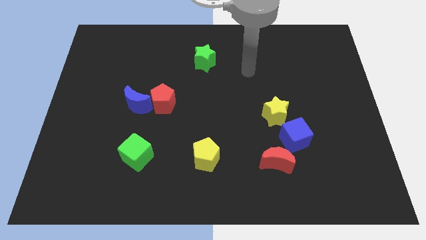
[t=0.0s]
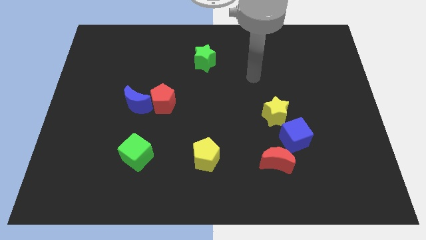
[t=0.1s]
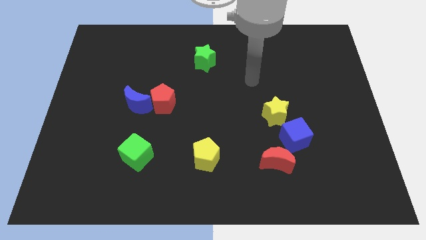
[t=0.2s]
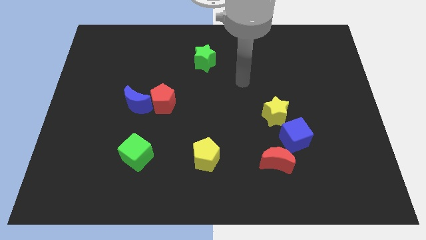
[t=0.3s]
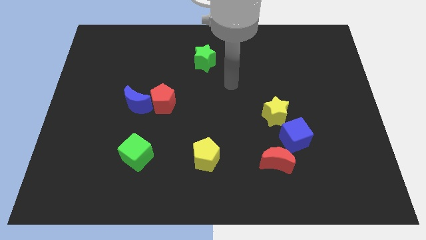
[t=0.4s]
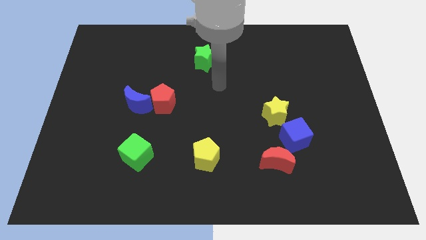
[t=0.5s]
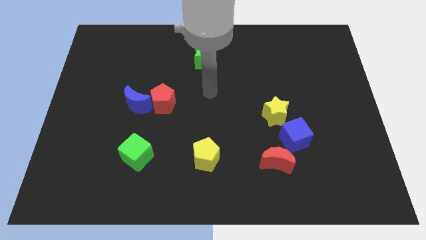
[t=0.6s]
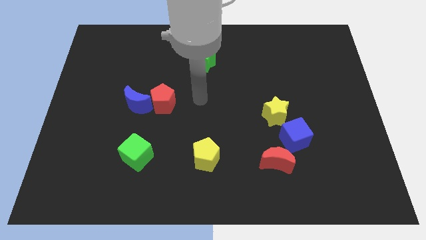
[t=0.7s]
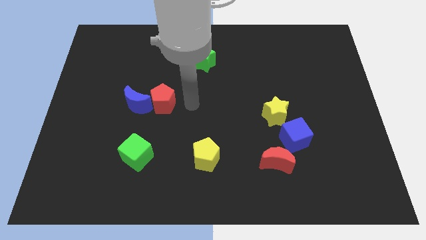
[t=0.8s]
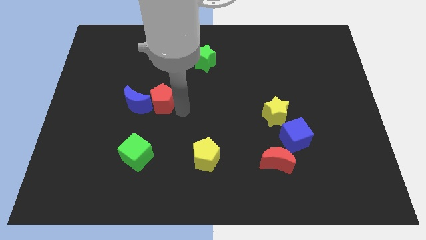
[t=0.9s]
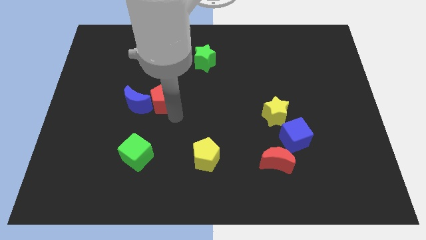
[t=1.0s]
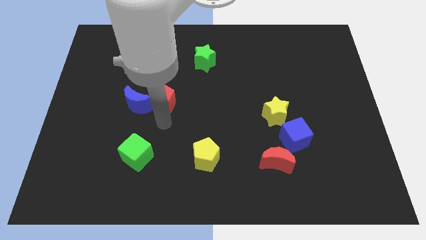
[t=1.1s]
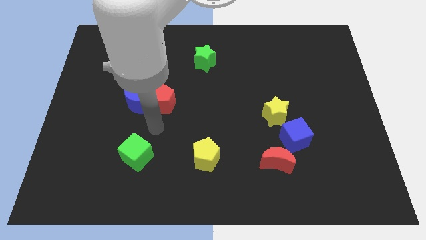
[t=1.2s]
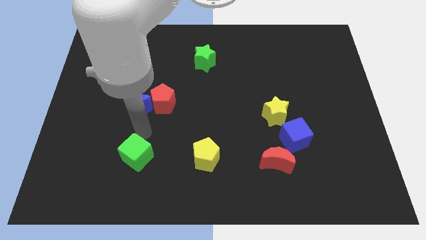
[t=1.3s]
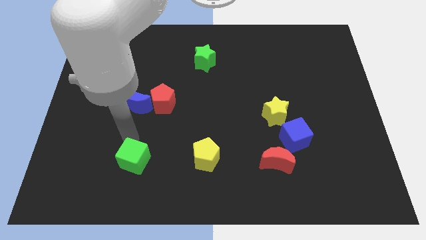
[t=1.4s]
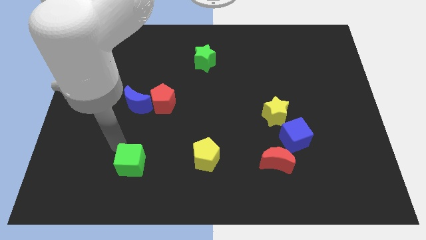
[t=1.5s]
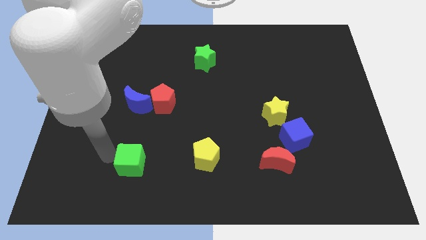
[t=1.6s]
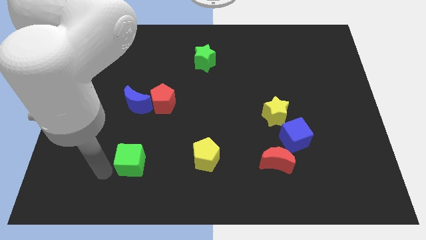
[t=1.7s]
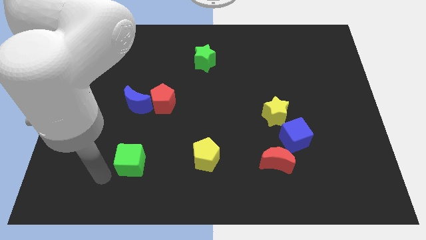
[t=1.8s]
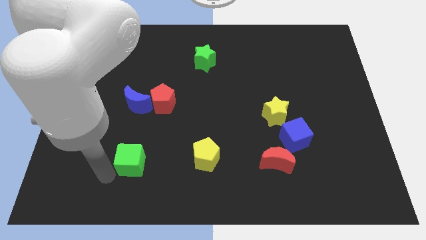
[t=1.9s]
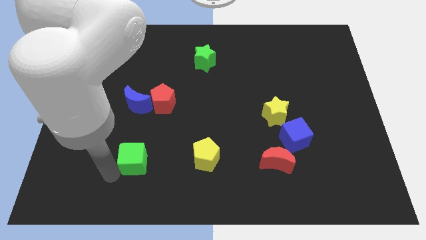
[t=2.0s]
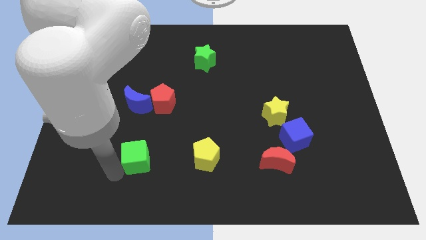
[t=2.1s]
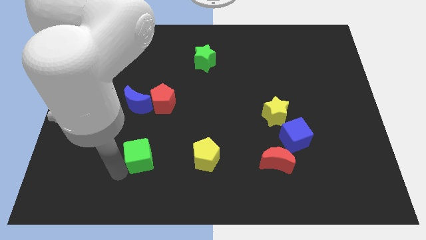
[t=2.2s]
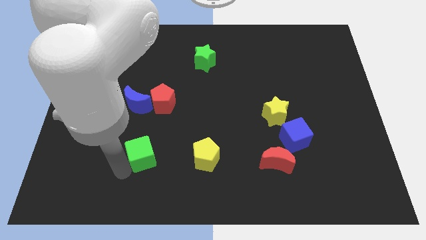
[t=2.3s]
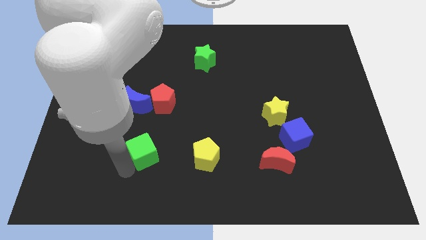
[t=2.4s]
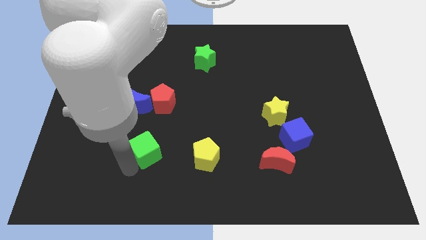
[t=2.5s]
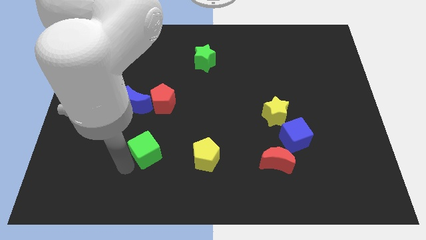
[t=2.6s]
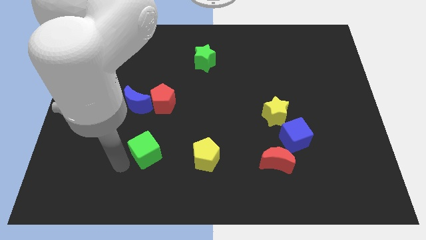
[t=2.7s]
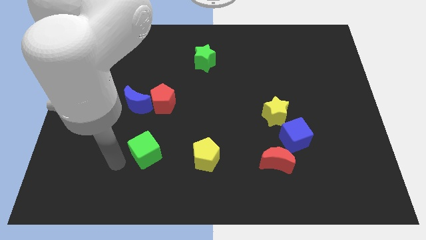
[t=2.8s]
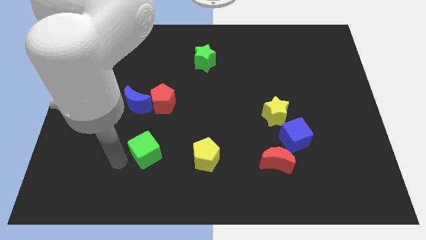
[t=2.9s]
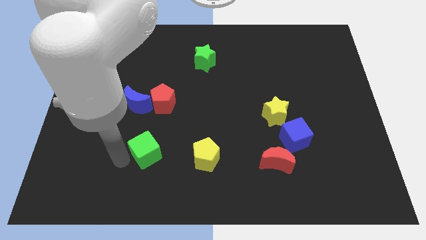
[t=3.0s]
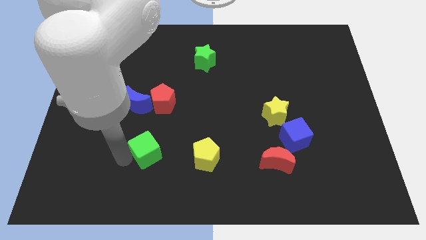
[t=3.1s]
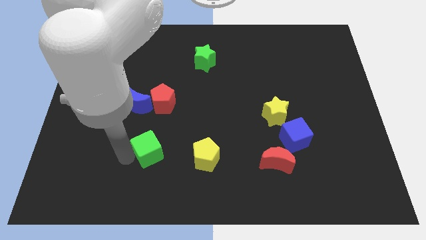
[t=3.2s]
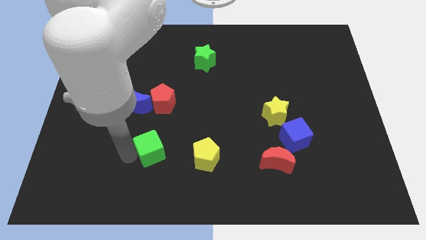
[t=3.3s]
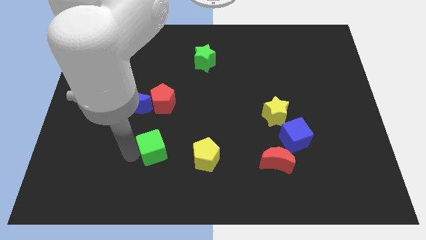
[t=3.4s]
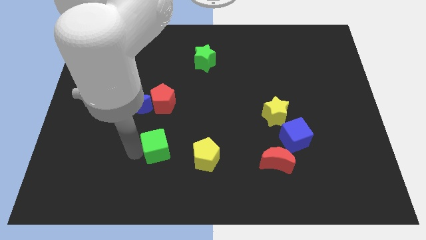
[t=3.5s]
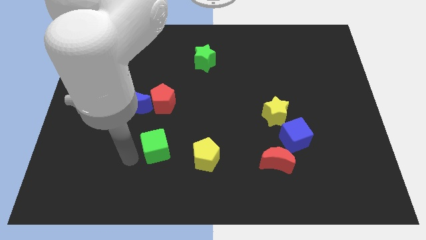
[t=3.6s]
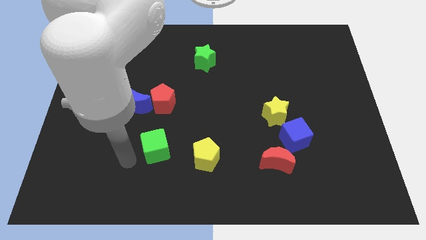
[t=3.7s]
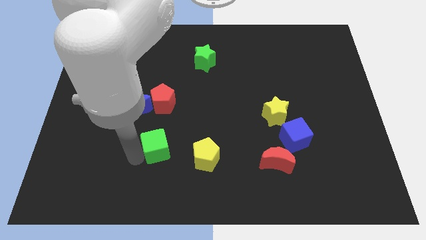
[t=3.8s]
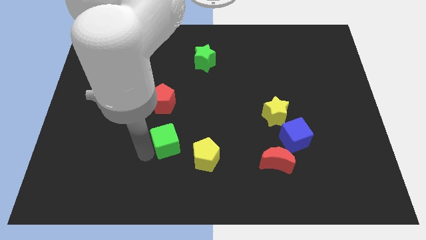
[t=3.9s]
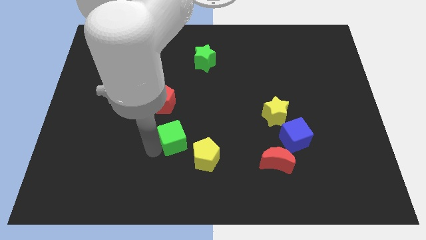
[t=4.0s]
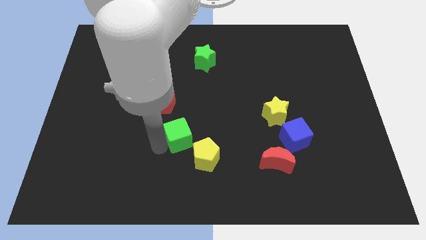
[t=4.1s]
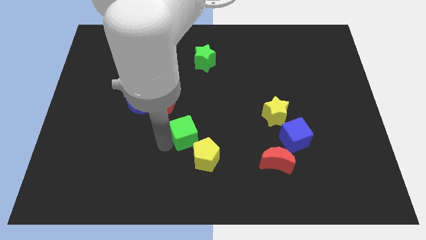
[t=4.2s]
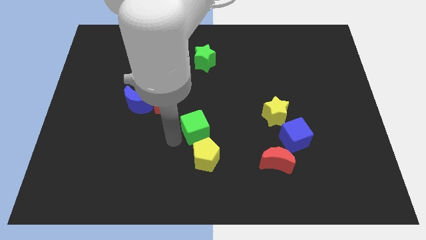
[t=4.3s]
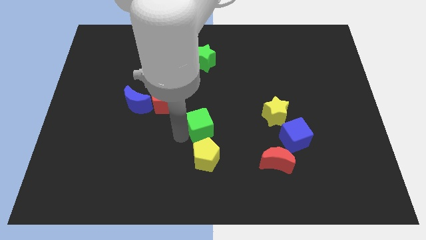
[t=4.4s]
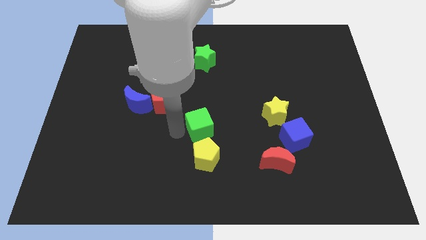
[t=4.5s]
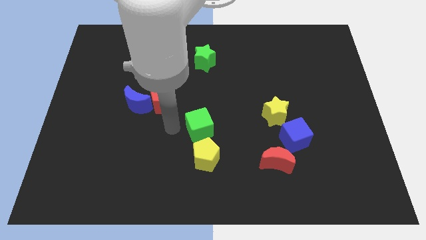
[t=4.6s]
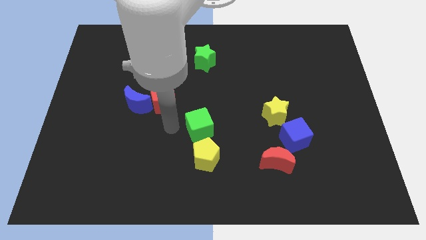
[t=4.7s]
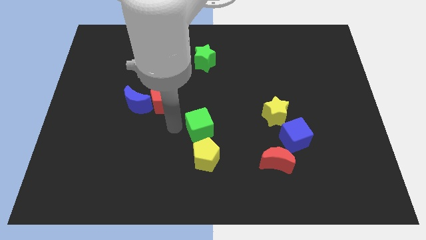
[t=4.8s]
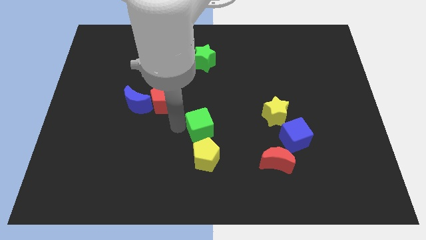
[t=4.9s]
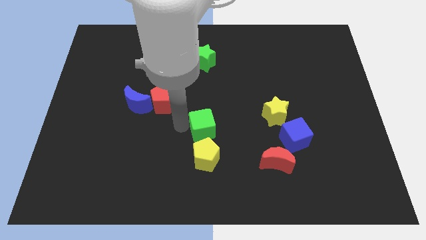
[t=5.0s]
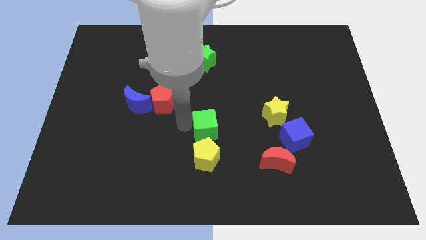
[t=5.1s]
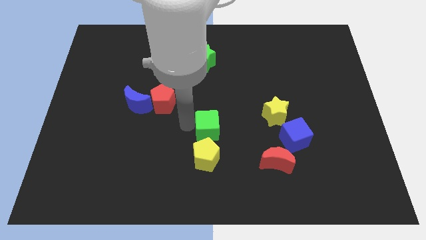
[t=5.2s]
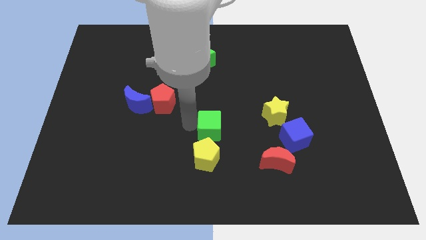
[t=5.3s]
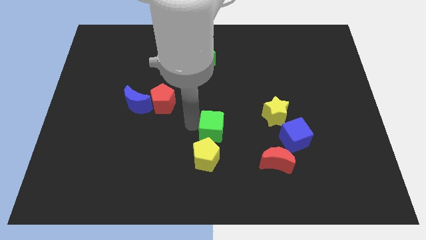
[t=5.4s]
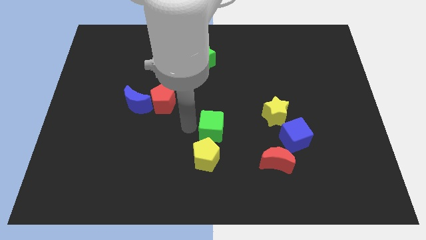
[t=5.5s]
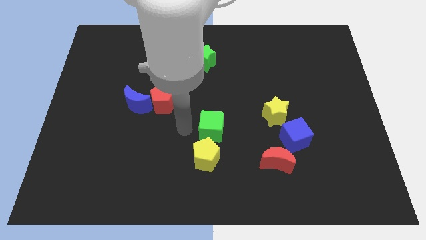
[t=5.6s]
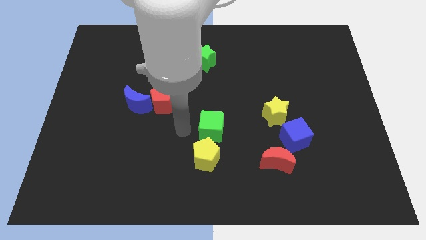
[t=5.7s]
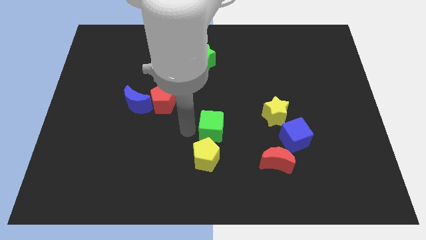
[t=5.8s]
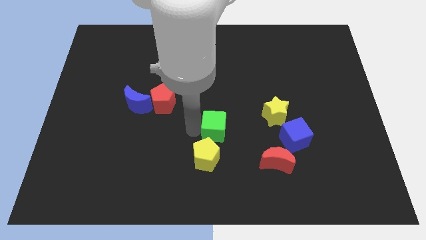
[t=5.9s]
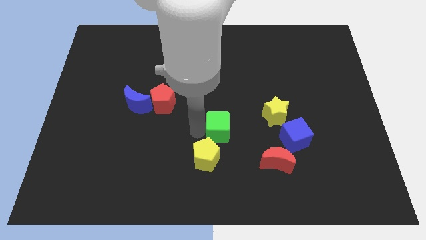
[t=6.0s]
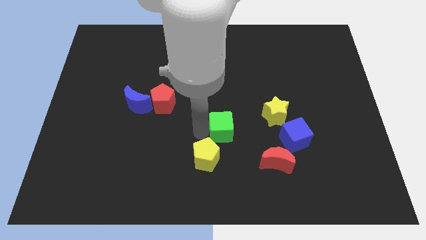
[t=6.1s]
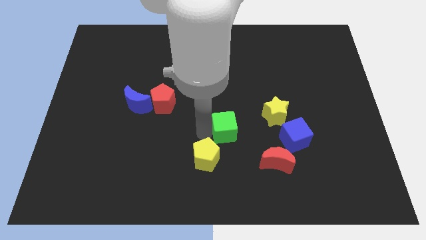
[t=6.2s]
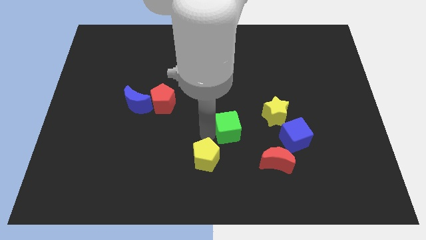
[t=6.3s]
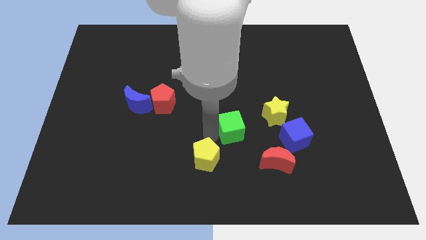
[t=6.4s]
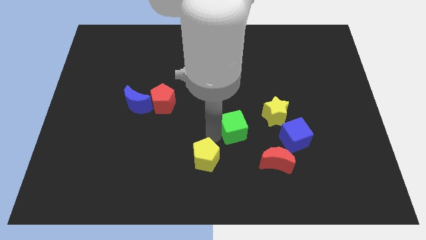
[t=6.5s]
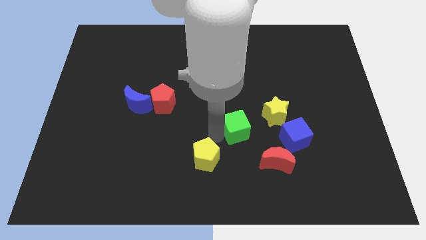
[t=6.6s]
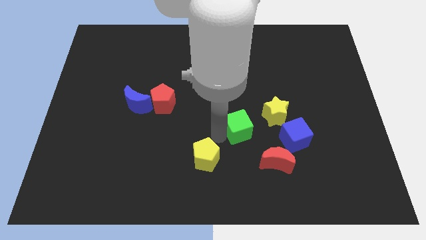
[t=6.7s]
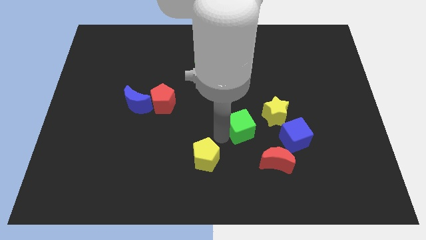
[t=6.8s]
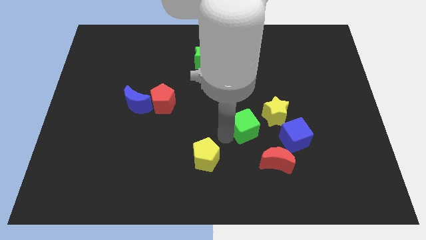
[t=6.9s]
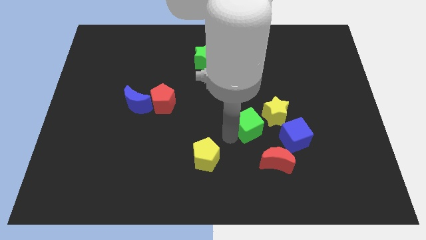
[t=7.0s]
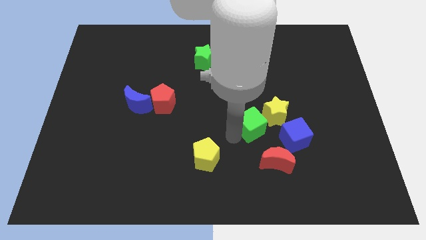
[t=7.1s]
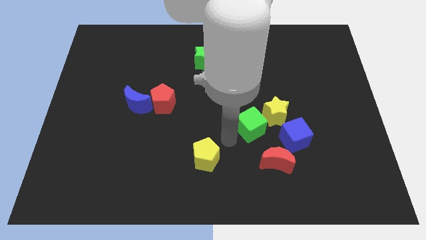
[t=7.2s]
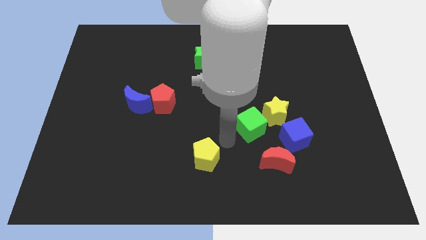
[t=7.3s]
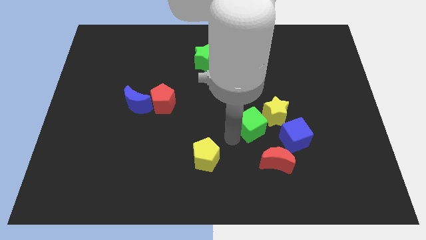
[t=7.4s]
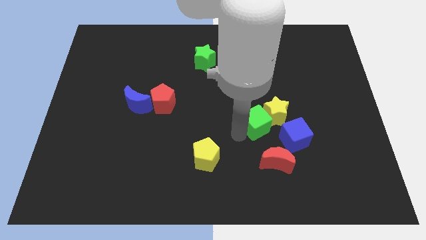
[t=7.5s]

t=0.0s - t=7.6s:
put the green cube next to the yellow star
